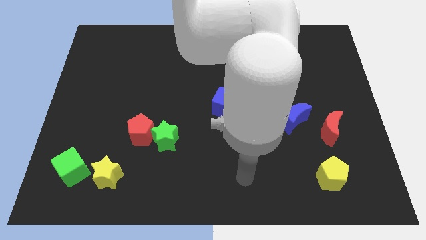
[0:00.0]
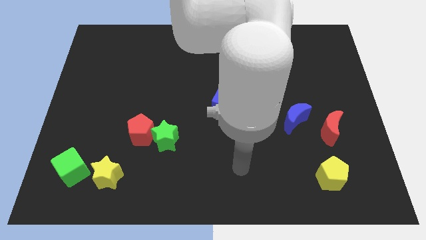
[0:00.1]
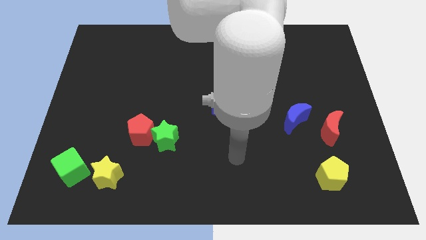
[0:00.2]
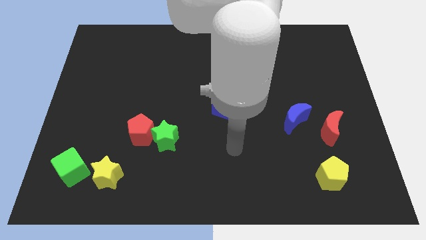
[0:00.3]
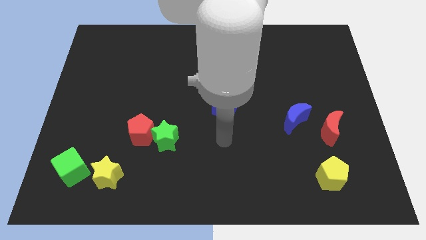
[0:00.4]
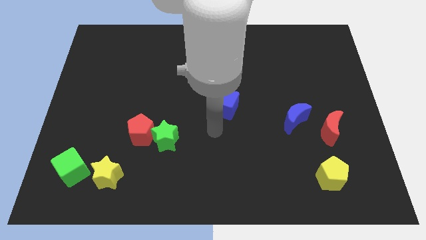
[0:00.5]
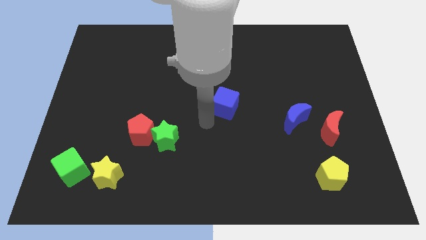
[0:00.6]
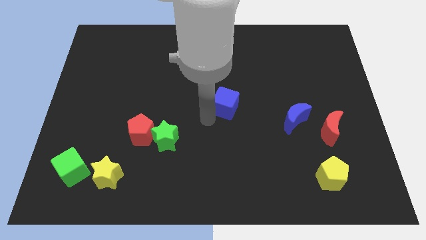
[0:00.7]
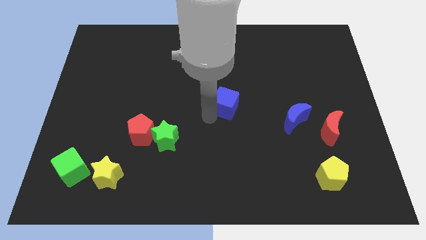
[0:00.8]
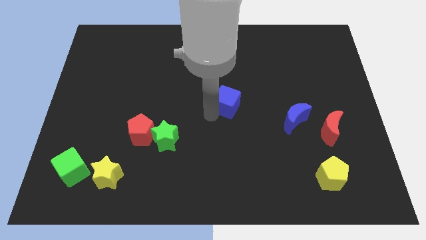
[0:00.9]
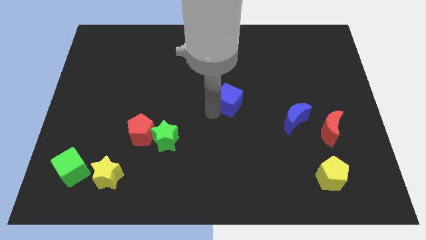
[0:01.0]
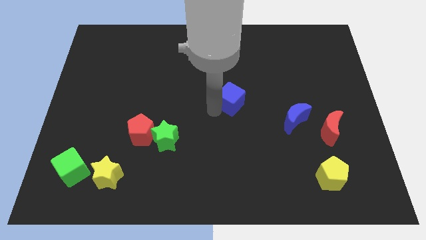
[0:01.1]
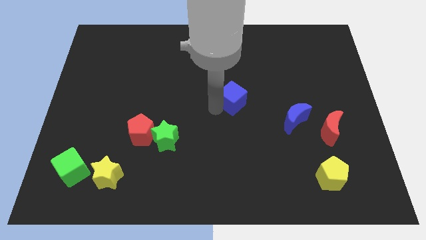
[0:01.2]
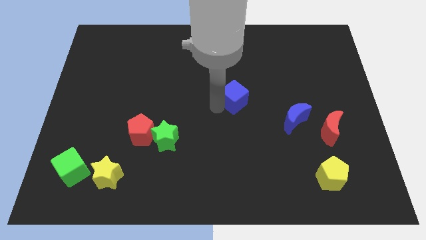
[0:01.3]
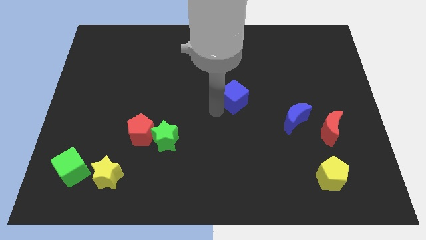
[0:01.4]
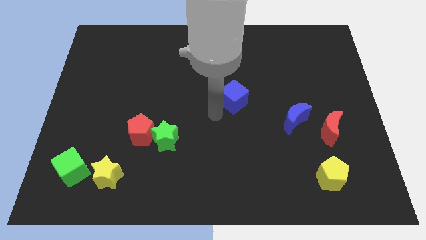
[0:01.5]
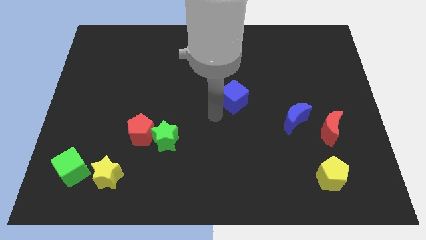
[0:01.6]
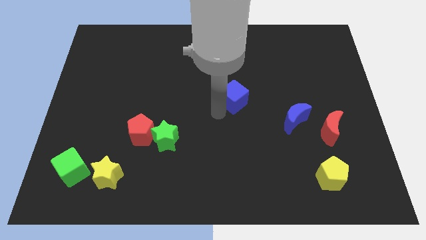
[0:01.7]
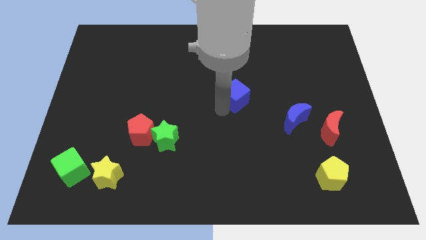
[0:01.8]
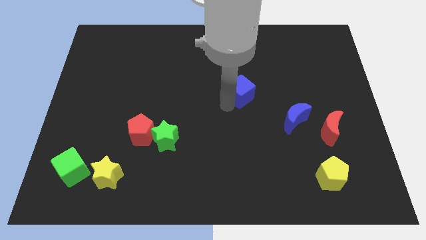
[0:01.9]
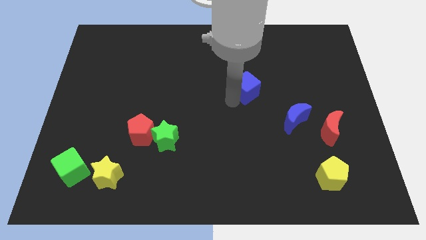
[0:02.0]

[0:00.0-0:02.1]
move the blue cube diagonally up and right a little

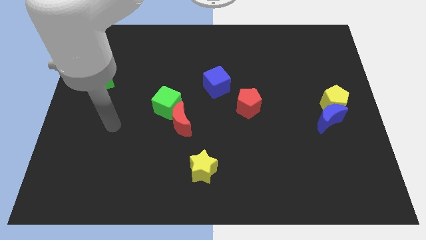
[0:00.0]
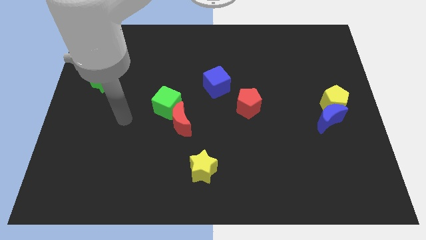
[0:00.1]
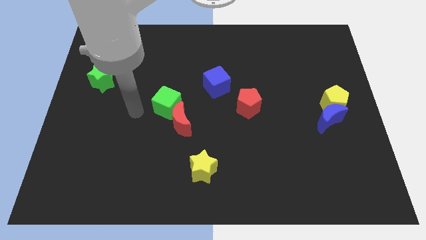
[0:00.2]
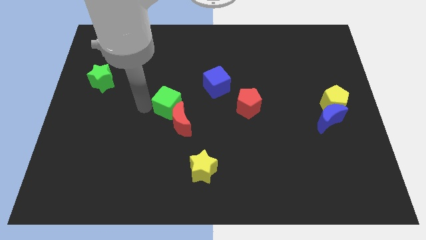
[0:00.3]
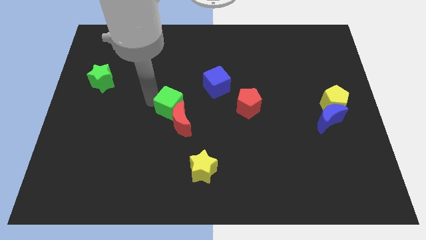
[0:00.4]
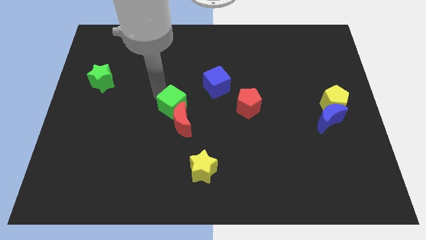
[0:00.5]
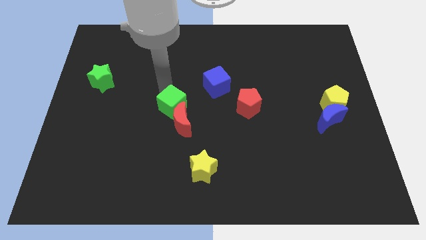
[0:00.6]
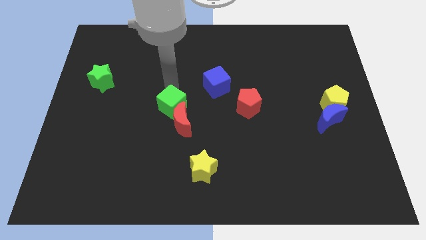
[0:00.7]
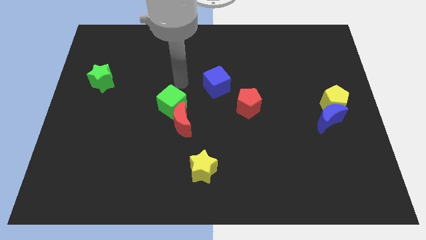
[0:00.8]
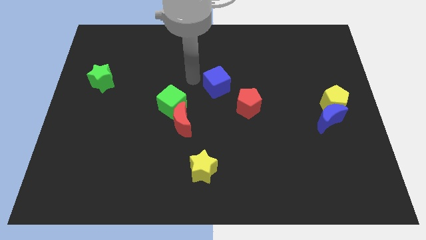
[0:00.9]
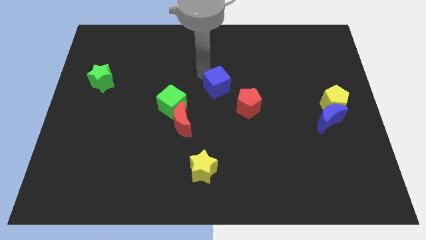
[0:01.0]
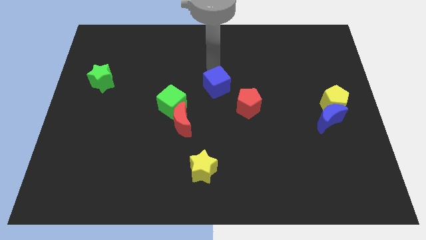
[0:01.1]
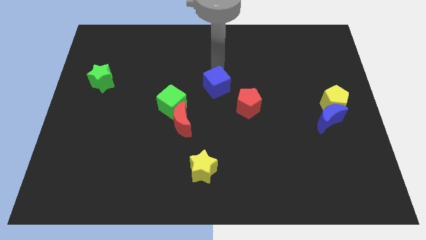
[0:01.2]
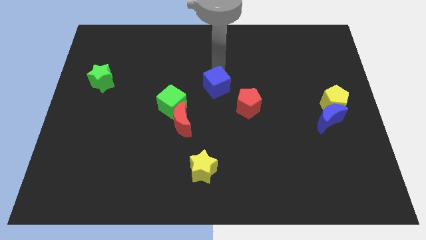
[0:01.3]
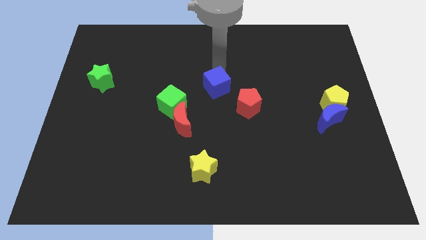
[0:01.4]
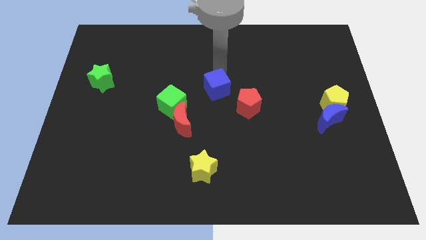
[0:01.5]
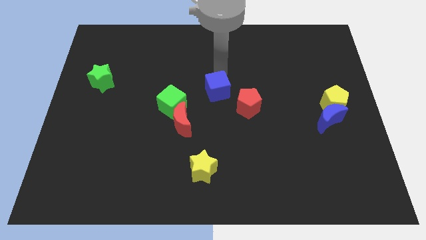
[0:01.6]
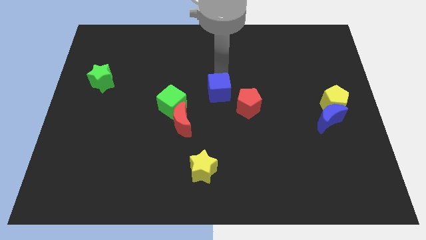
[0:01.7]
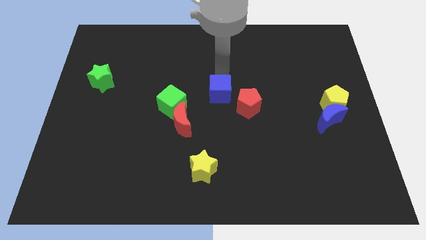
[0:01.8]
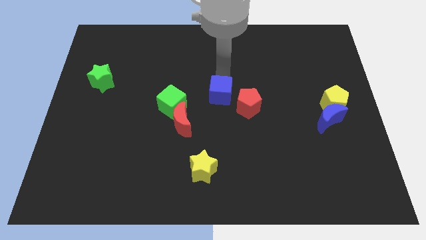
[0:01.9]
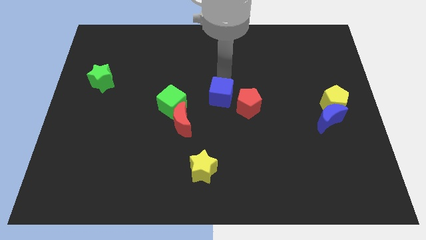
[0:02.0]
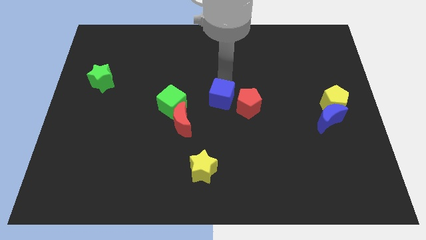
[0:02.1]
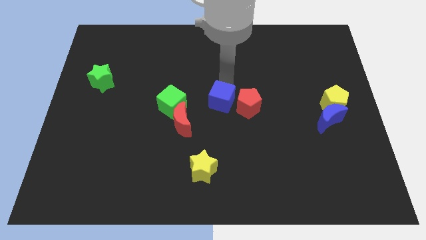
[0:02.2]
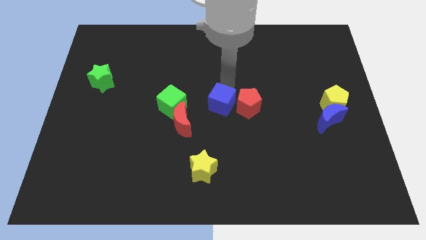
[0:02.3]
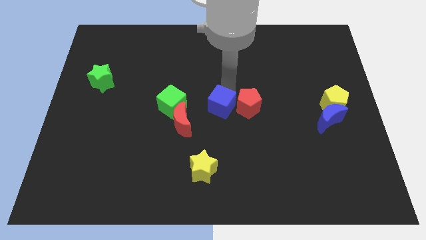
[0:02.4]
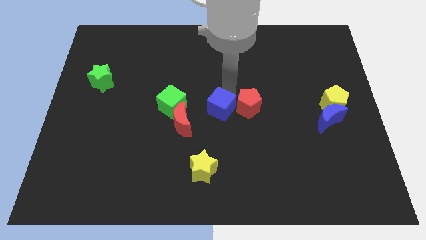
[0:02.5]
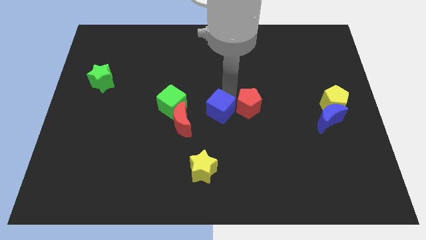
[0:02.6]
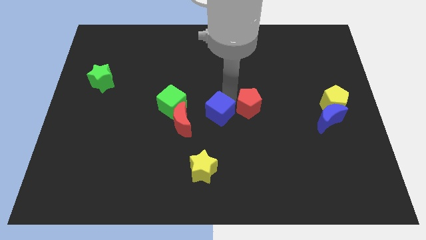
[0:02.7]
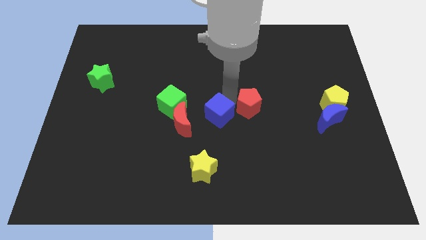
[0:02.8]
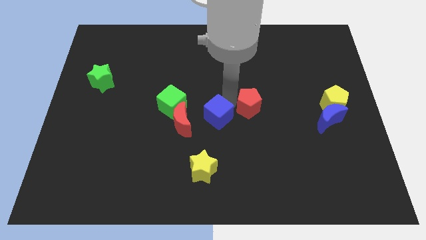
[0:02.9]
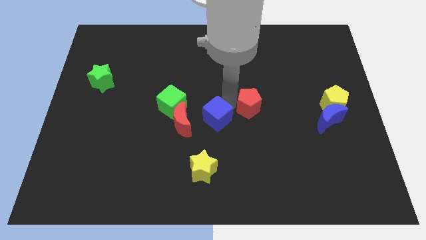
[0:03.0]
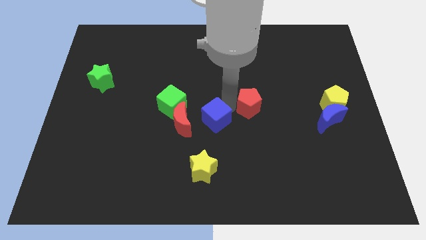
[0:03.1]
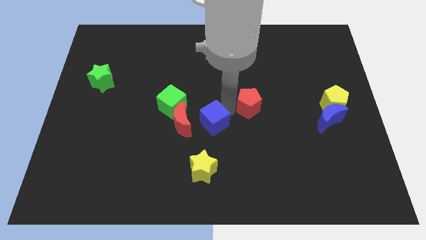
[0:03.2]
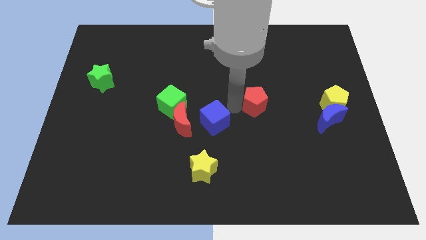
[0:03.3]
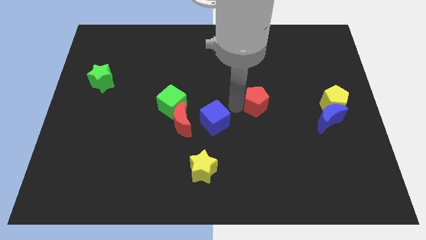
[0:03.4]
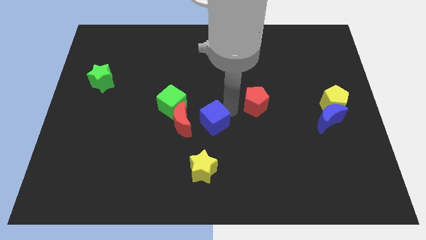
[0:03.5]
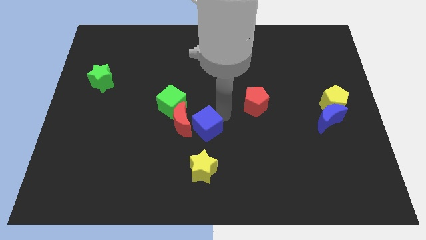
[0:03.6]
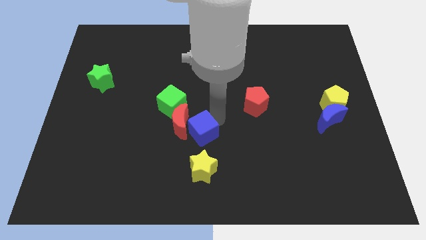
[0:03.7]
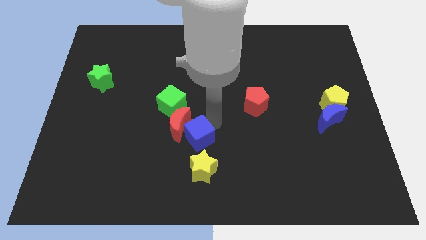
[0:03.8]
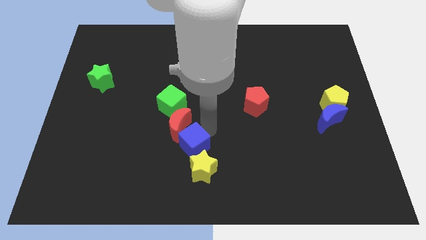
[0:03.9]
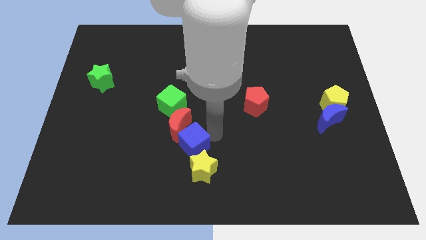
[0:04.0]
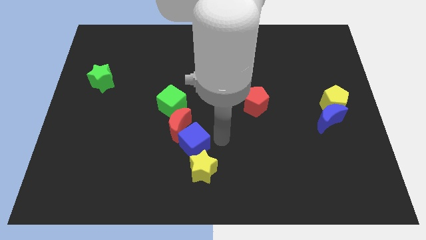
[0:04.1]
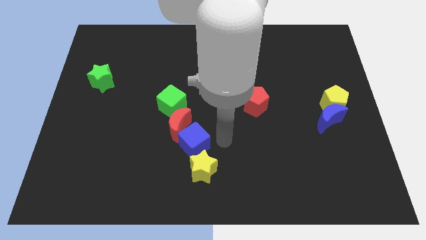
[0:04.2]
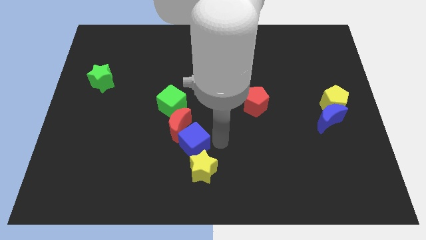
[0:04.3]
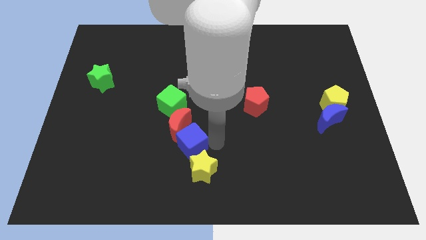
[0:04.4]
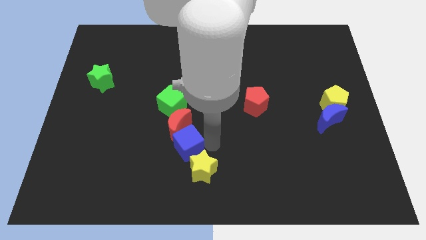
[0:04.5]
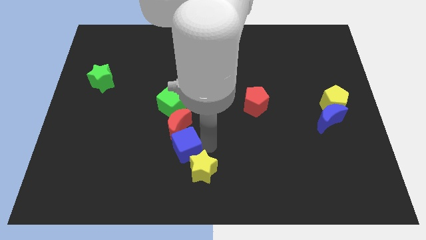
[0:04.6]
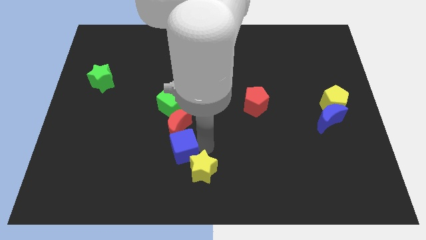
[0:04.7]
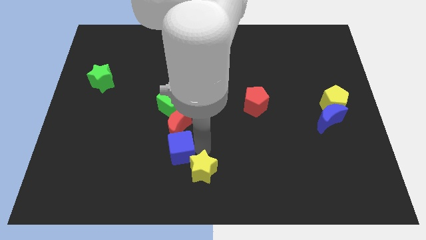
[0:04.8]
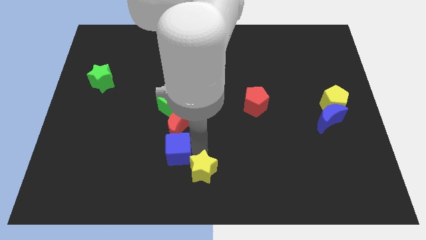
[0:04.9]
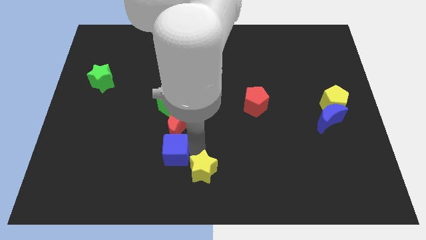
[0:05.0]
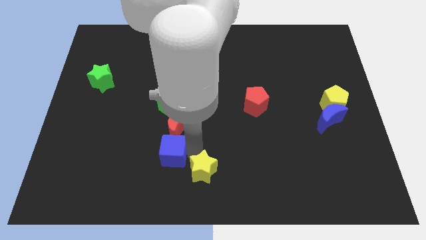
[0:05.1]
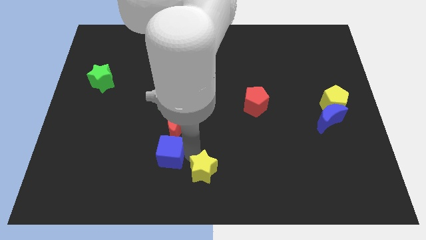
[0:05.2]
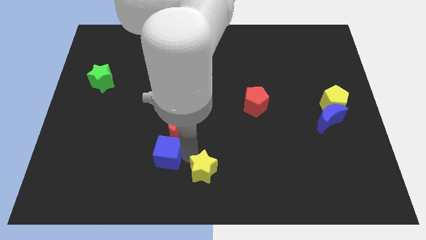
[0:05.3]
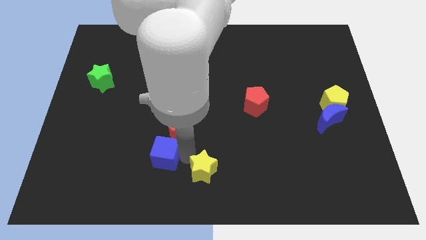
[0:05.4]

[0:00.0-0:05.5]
move the blue cube down and then to the left
